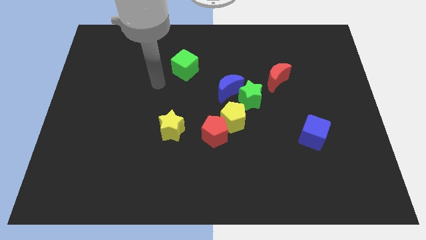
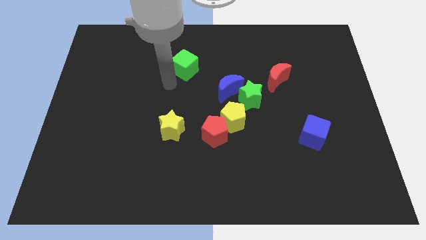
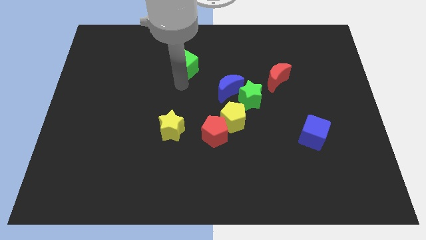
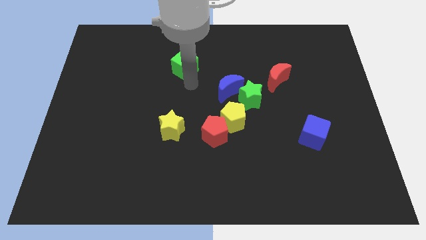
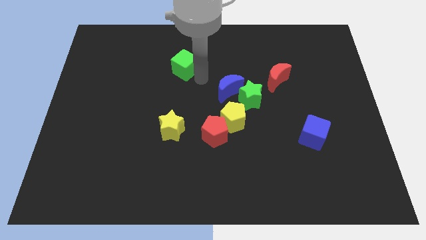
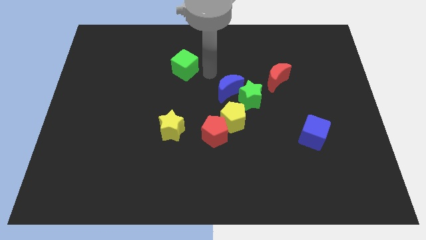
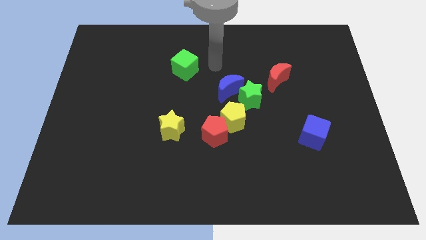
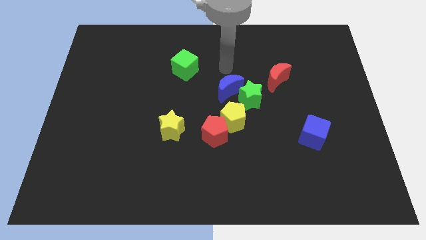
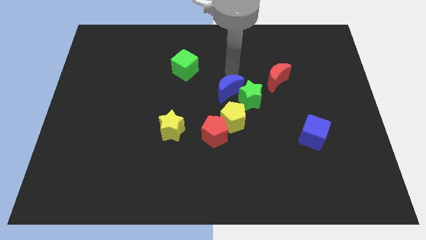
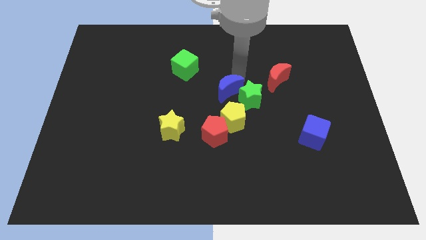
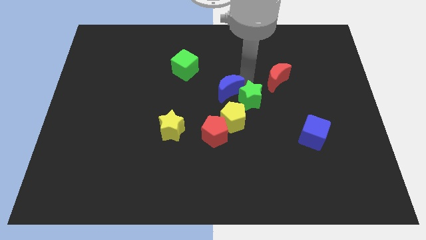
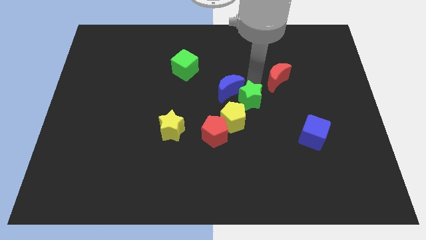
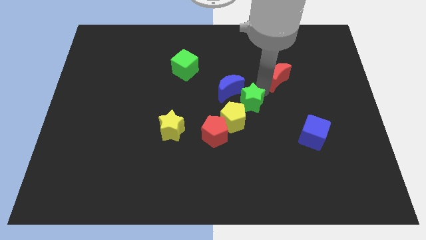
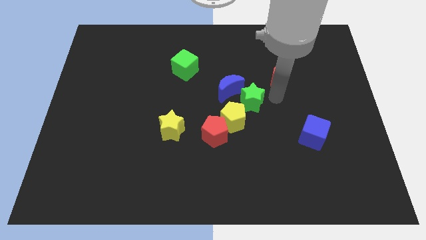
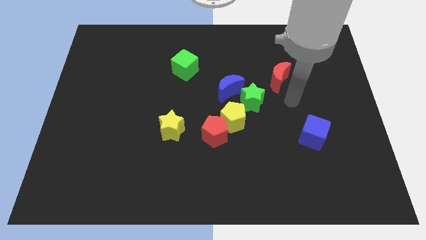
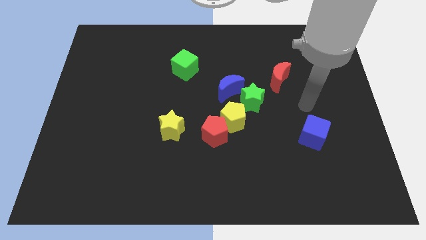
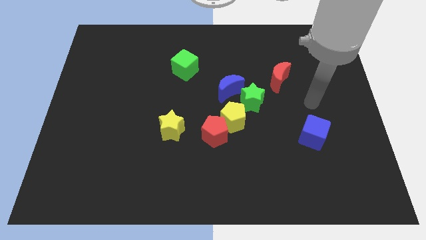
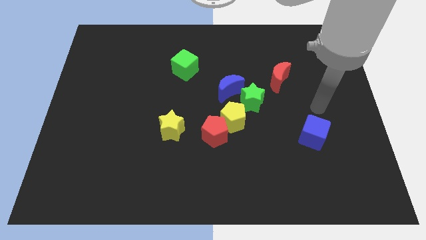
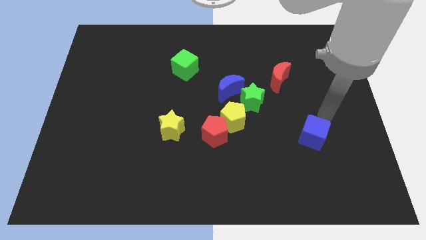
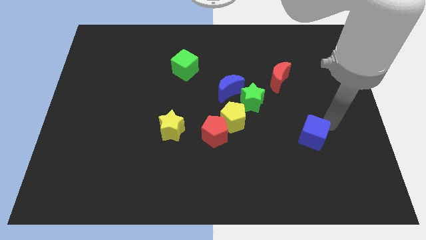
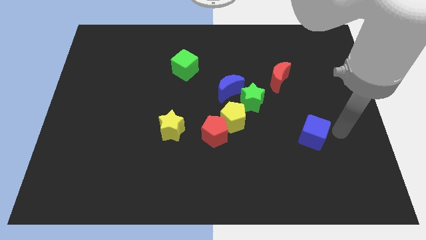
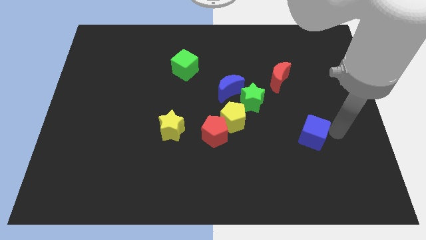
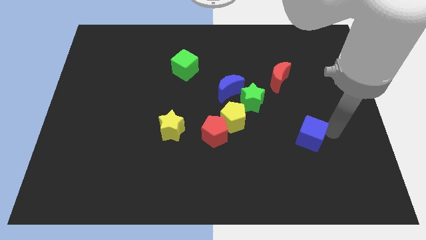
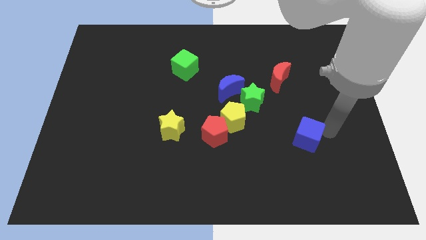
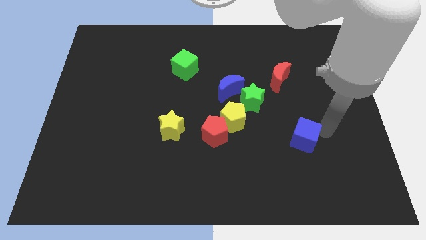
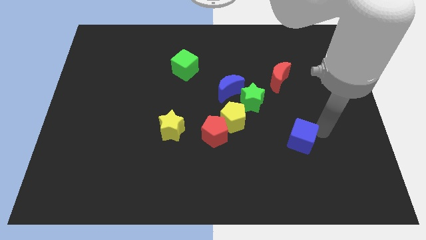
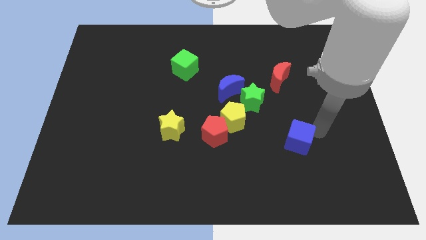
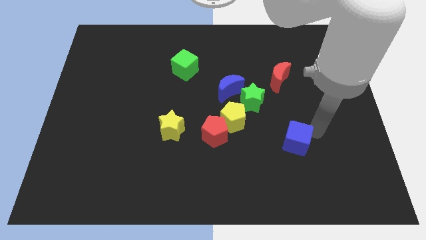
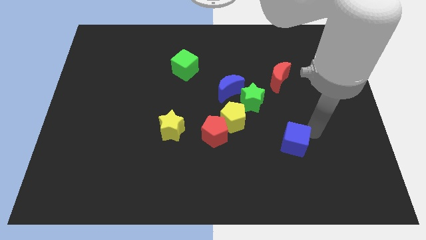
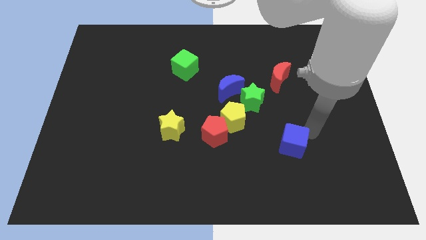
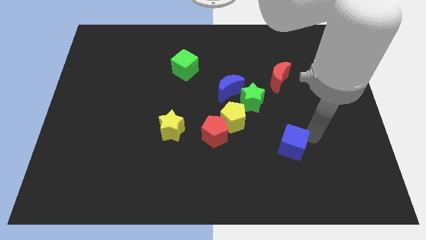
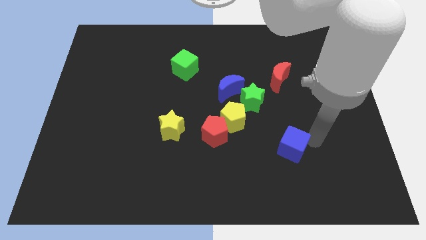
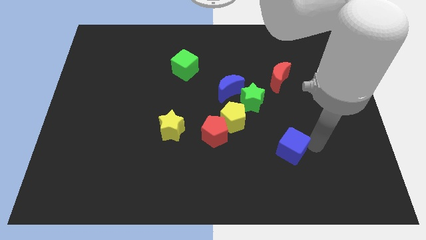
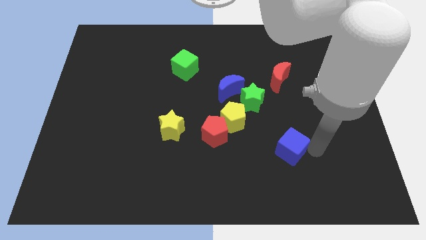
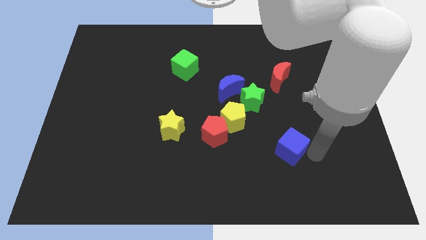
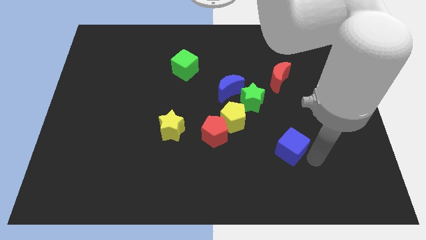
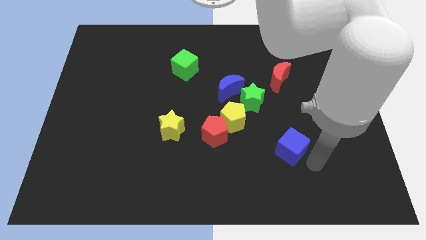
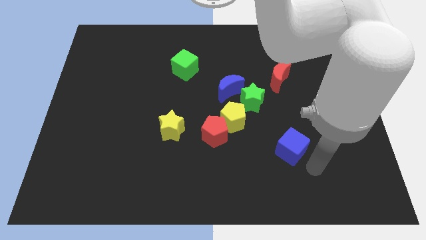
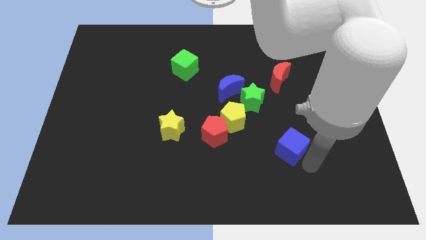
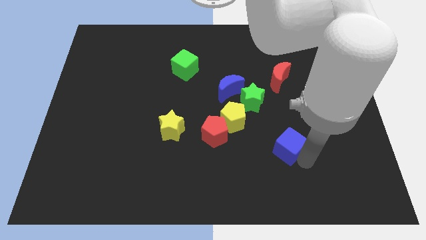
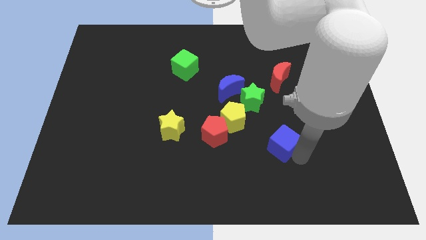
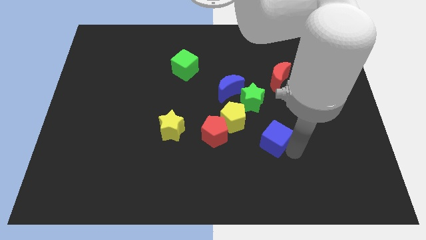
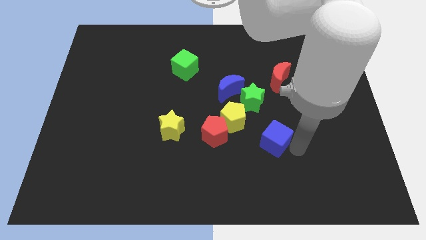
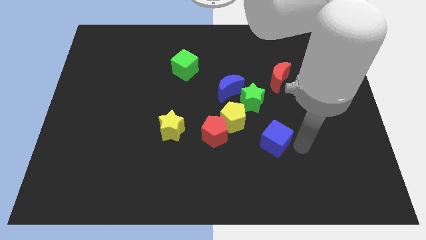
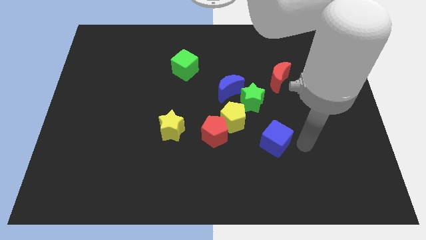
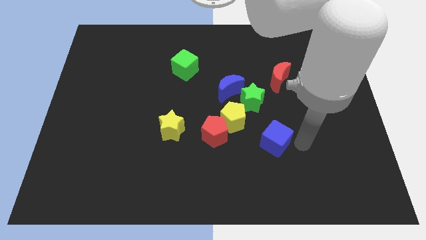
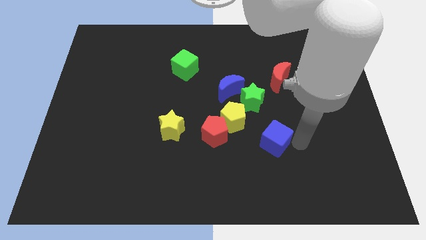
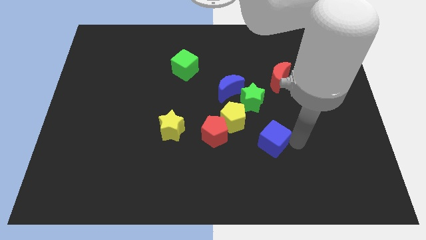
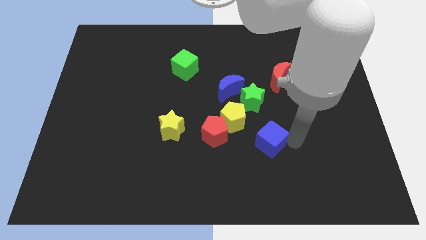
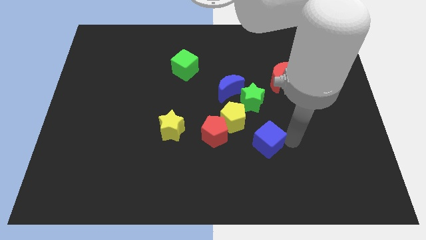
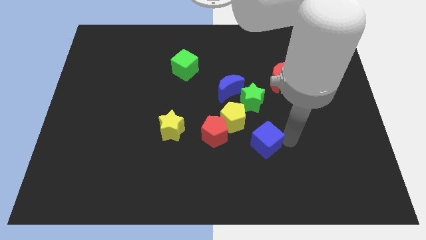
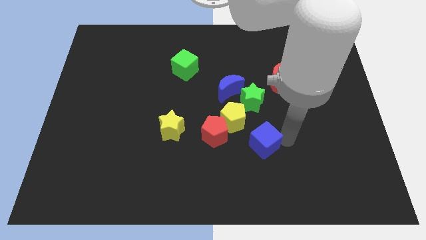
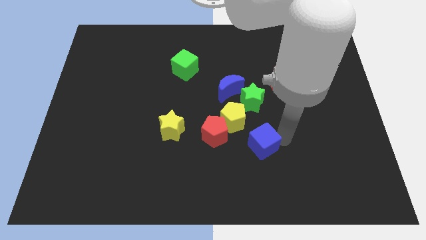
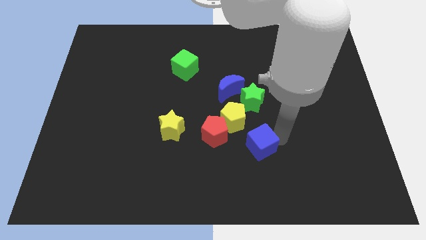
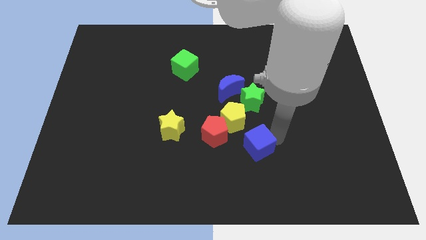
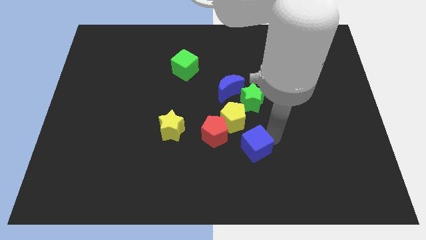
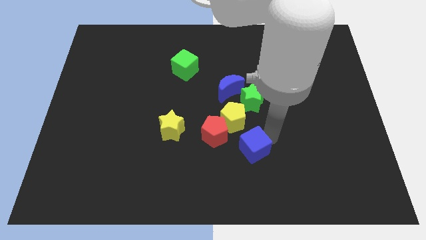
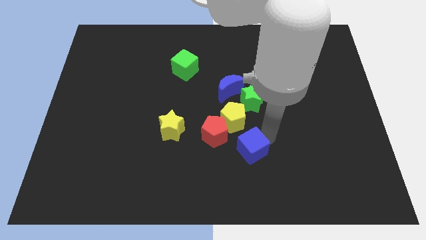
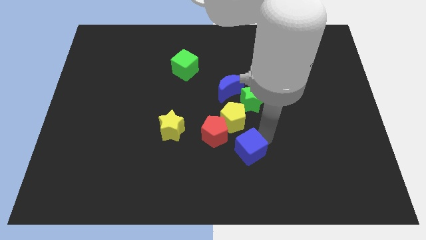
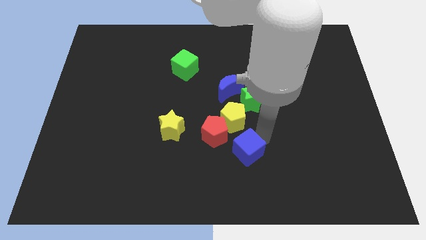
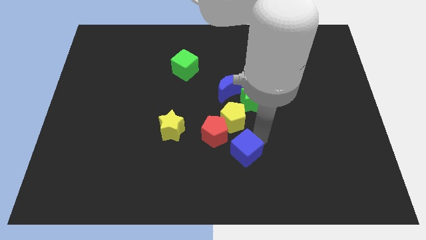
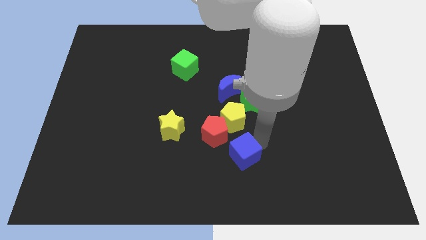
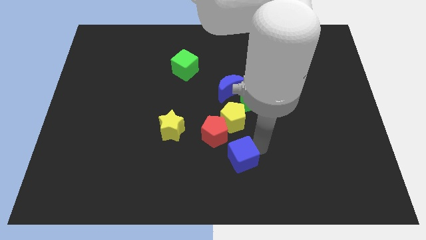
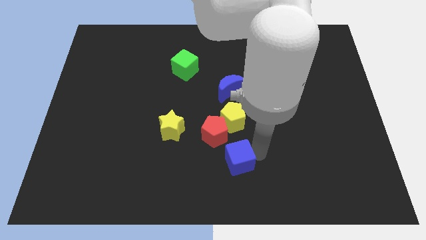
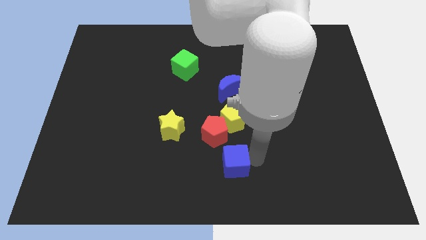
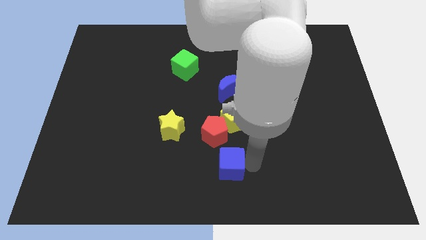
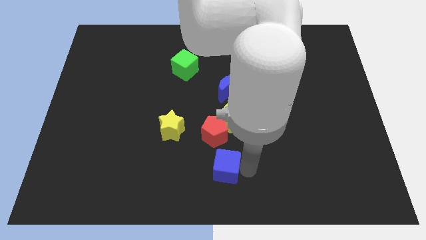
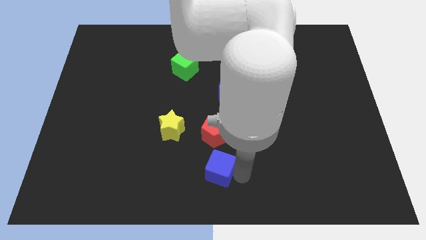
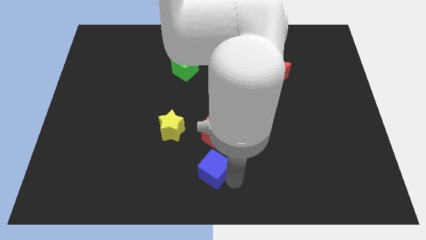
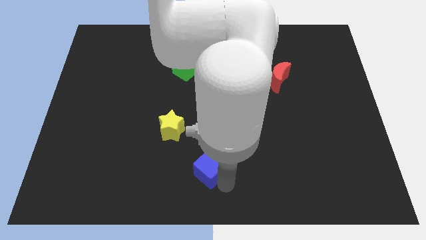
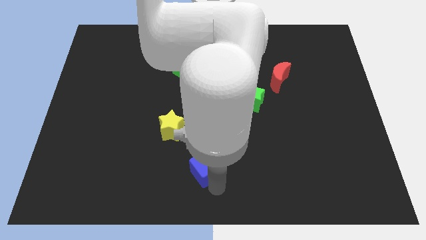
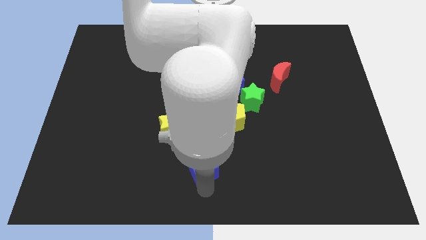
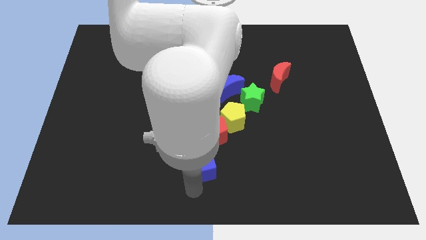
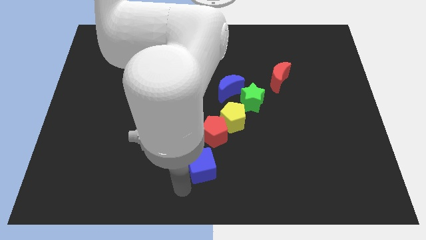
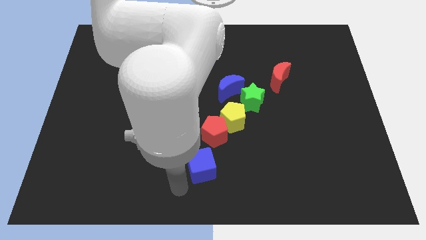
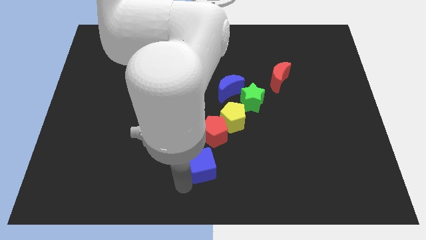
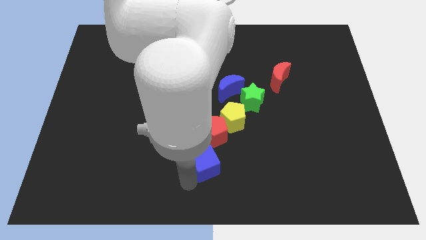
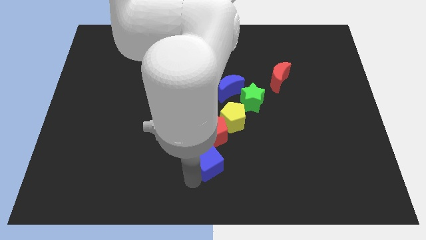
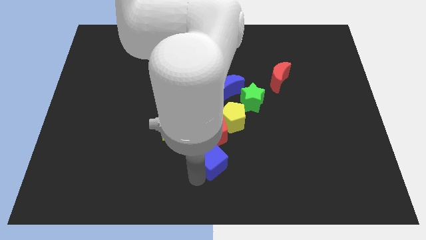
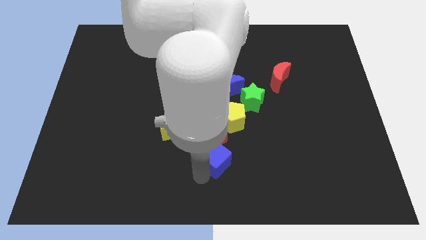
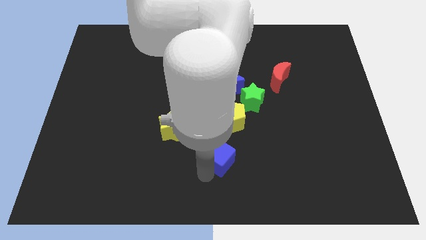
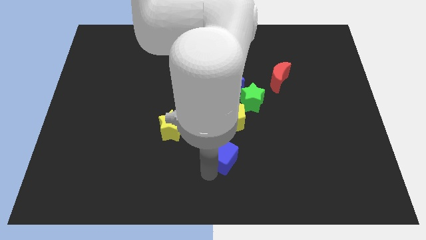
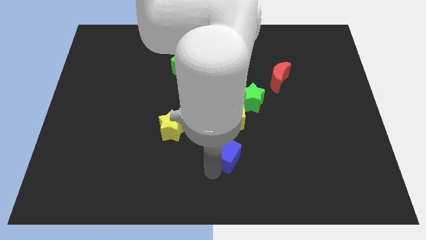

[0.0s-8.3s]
slide the blue cube next to the red pentagon
